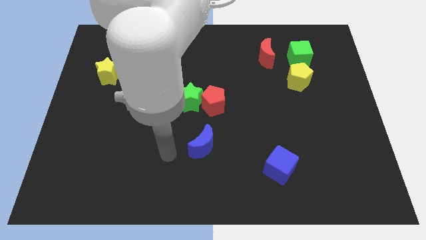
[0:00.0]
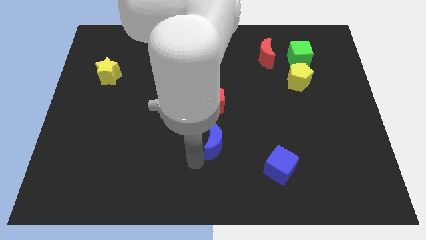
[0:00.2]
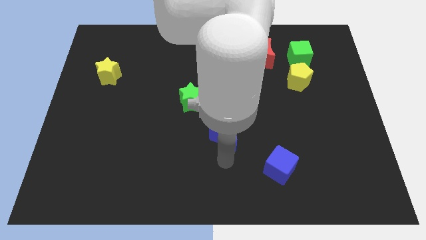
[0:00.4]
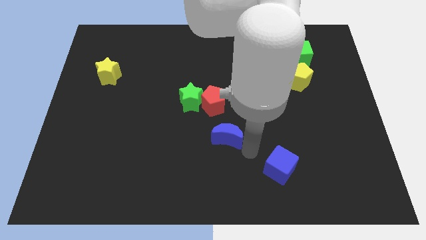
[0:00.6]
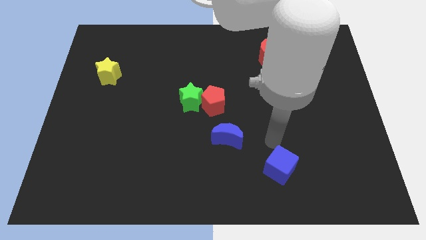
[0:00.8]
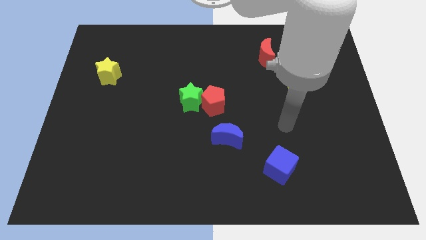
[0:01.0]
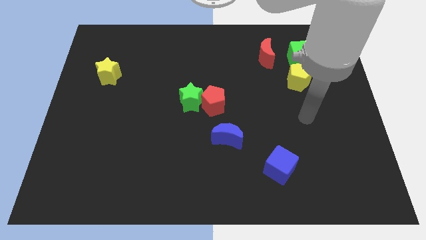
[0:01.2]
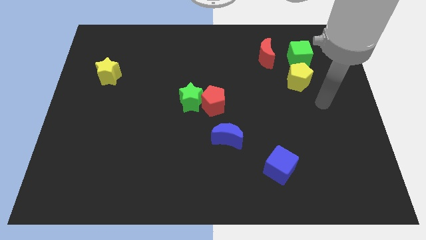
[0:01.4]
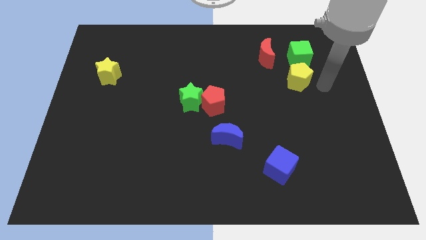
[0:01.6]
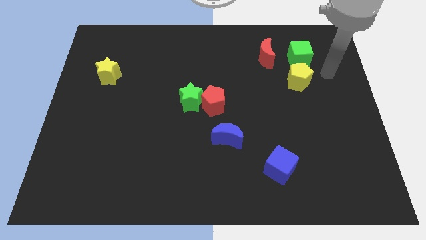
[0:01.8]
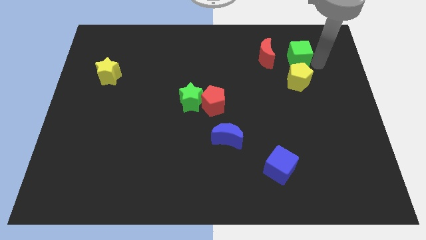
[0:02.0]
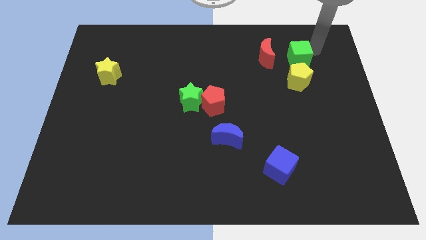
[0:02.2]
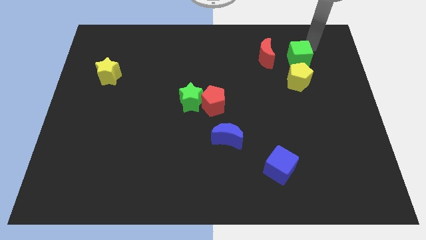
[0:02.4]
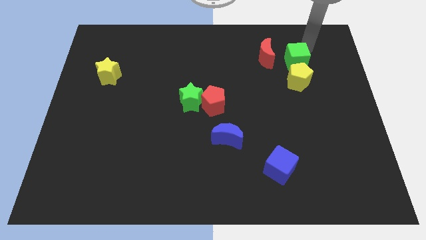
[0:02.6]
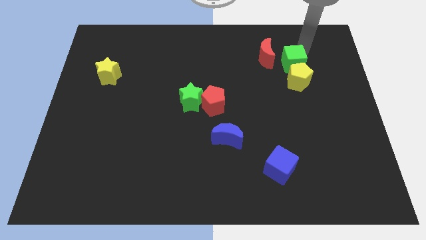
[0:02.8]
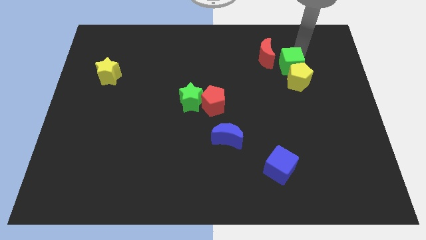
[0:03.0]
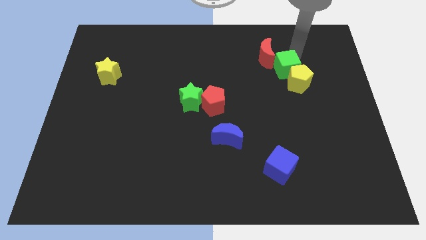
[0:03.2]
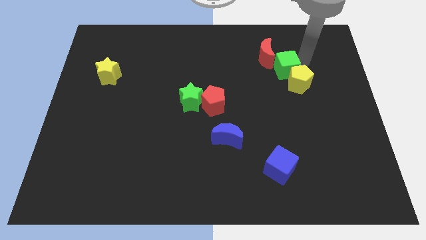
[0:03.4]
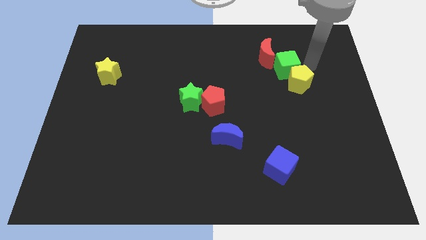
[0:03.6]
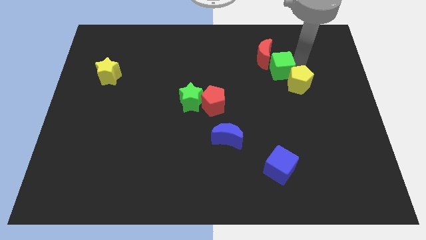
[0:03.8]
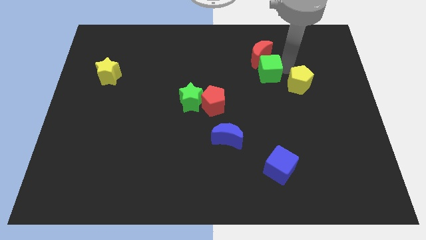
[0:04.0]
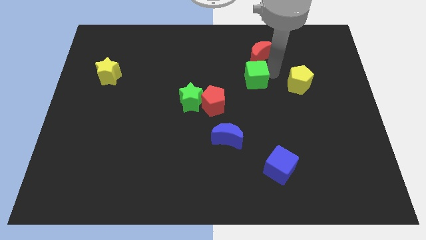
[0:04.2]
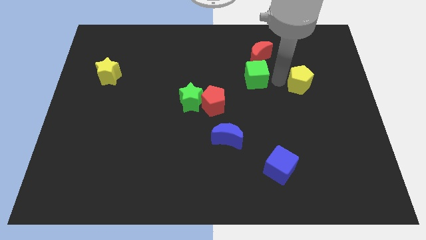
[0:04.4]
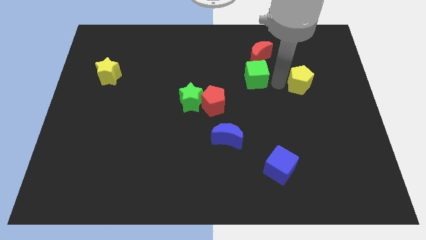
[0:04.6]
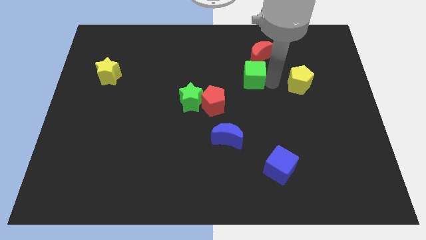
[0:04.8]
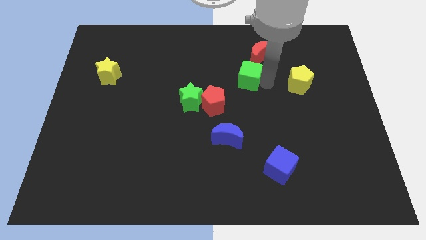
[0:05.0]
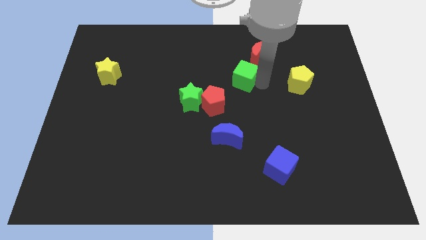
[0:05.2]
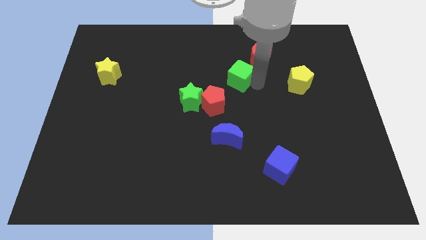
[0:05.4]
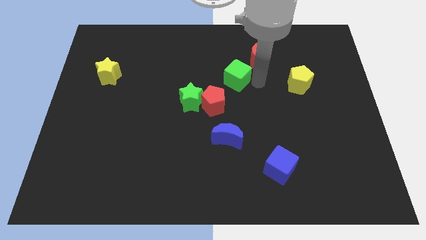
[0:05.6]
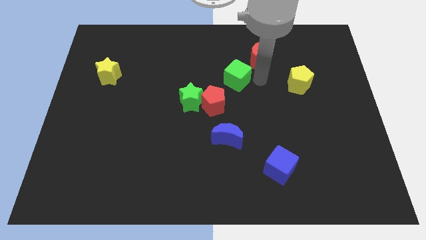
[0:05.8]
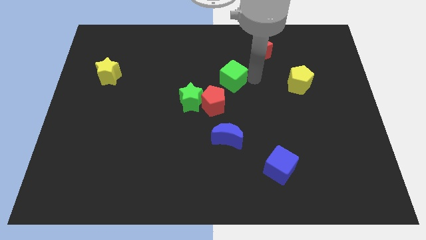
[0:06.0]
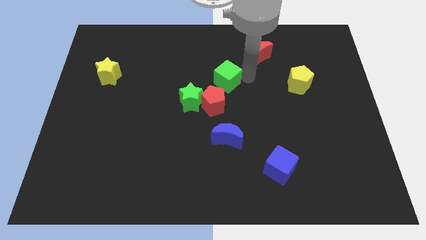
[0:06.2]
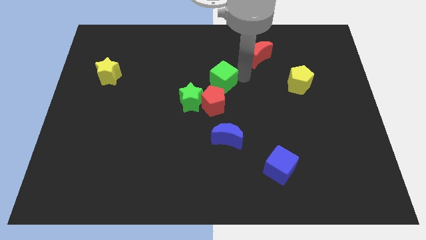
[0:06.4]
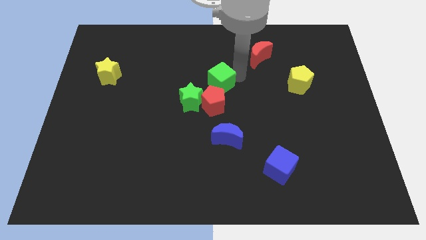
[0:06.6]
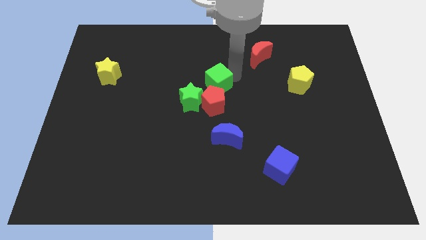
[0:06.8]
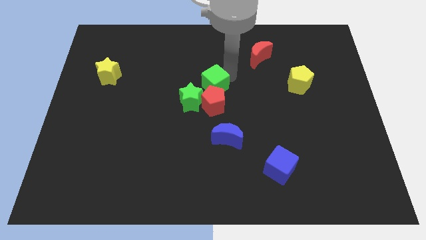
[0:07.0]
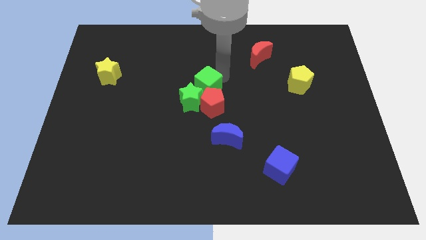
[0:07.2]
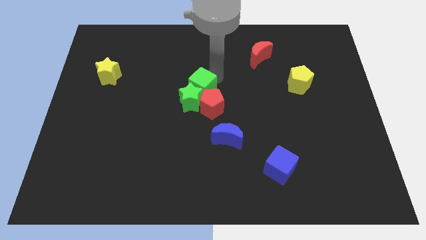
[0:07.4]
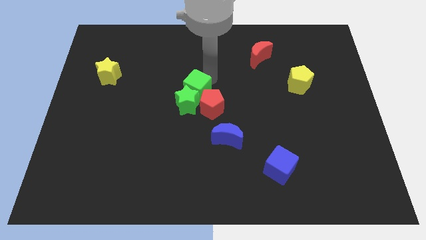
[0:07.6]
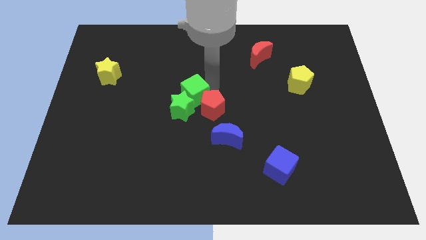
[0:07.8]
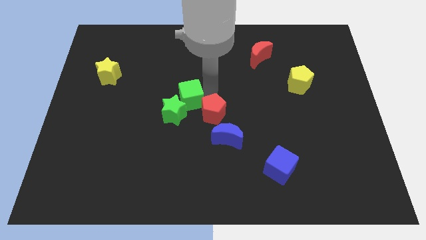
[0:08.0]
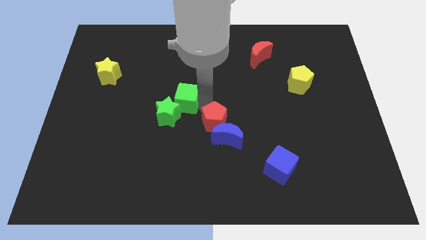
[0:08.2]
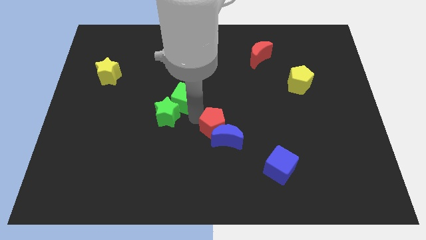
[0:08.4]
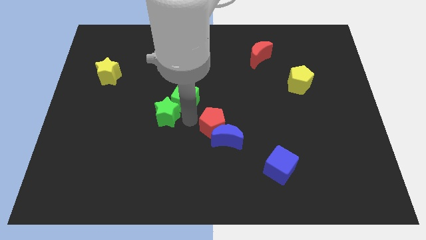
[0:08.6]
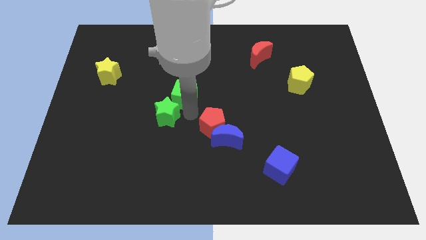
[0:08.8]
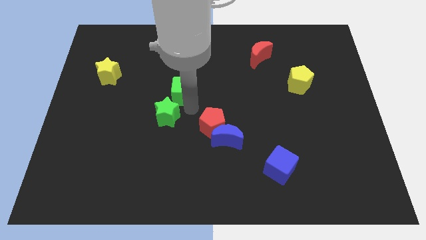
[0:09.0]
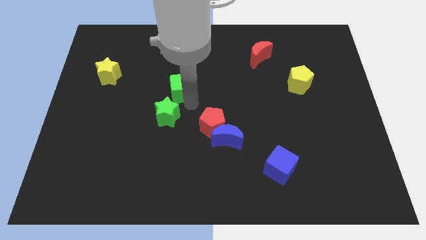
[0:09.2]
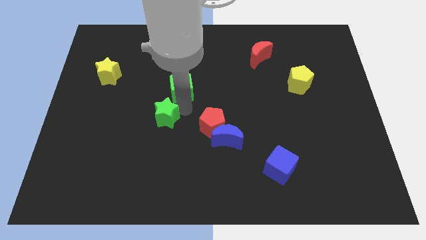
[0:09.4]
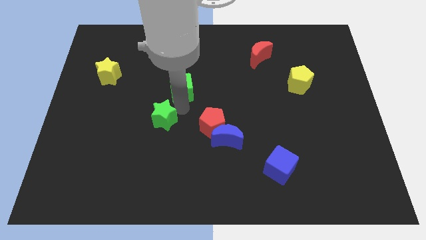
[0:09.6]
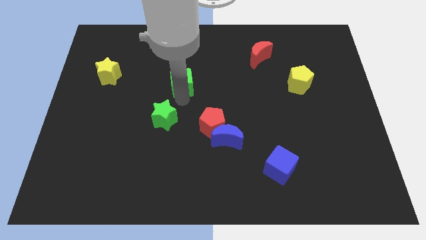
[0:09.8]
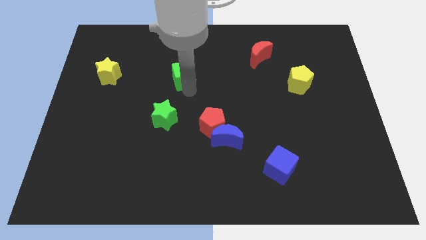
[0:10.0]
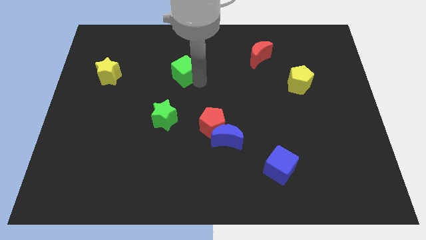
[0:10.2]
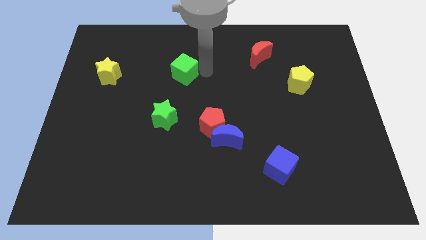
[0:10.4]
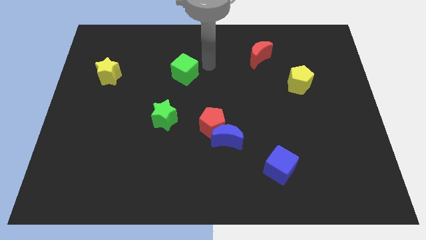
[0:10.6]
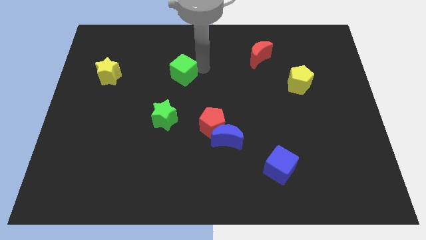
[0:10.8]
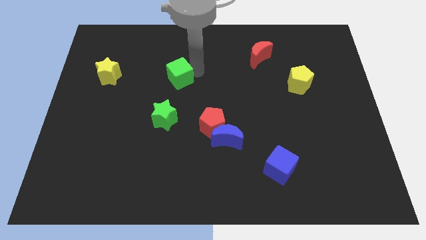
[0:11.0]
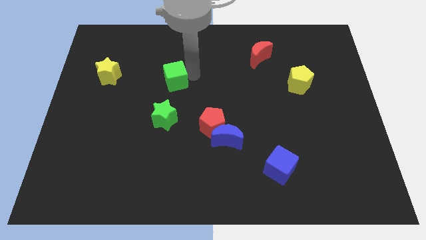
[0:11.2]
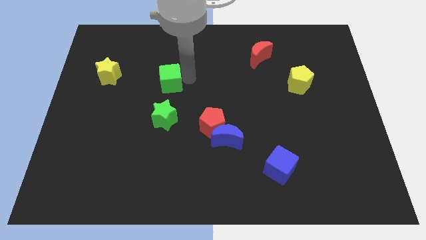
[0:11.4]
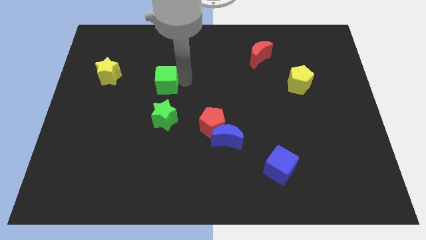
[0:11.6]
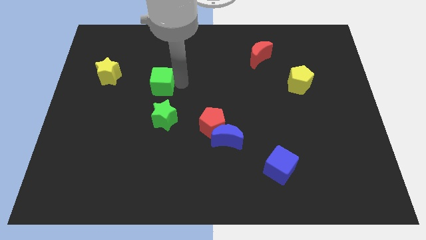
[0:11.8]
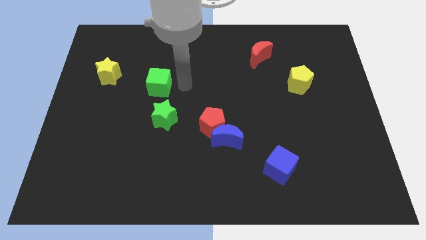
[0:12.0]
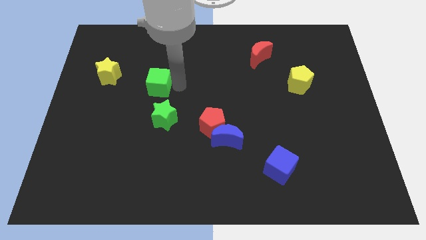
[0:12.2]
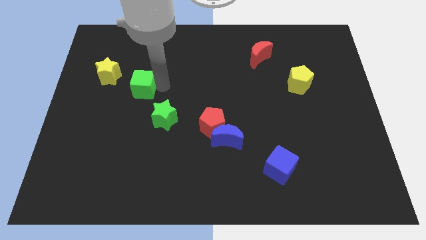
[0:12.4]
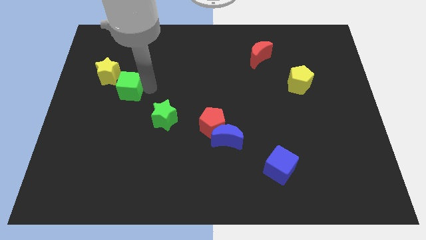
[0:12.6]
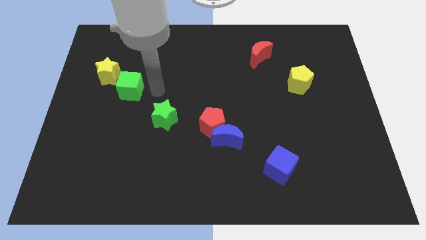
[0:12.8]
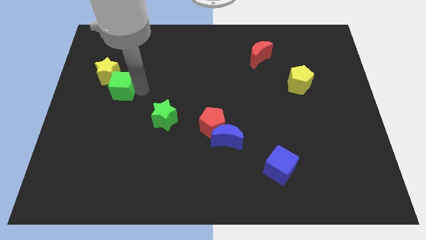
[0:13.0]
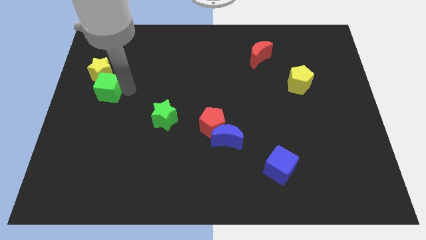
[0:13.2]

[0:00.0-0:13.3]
put the green cube to the left side of the board
